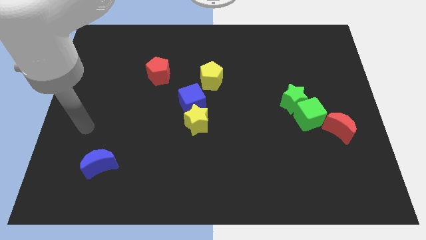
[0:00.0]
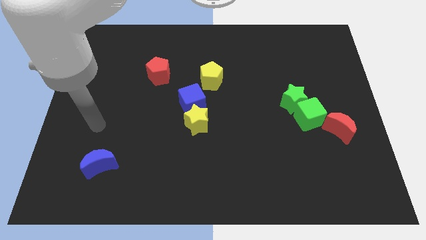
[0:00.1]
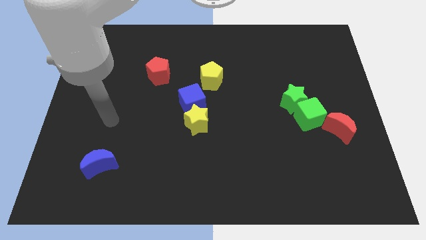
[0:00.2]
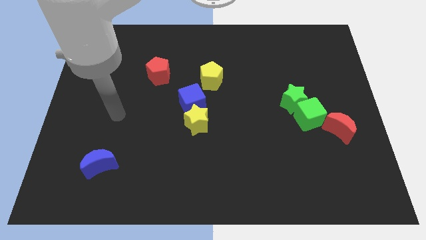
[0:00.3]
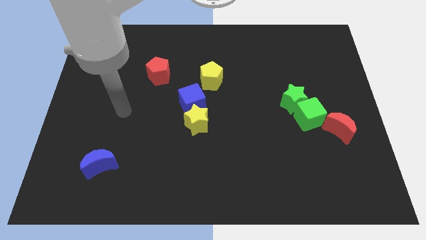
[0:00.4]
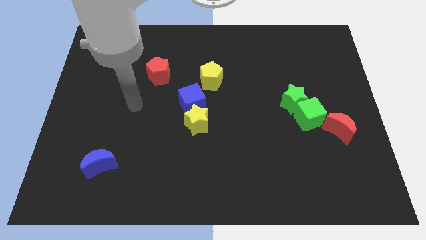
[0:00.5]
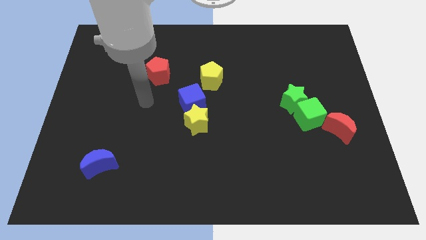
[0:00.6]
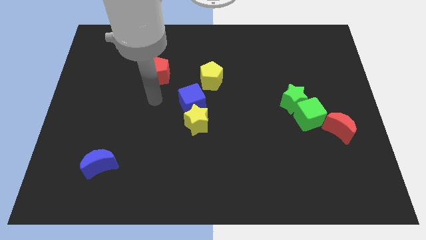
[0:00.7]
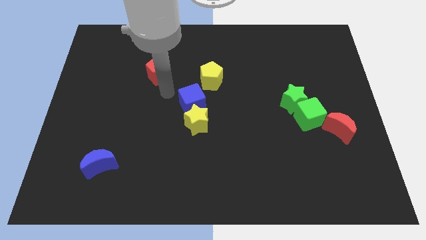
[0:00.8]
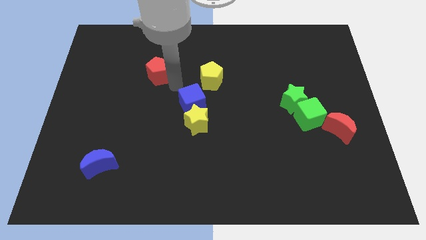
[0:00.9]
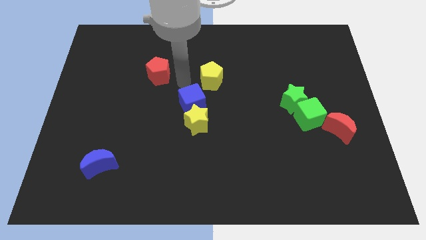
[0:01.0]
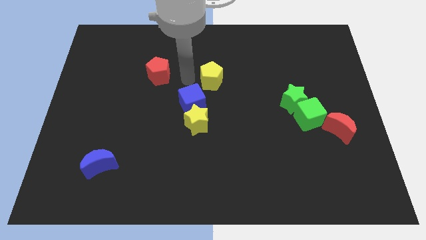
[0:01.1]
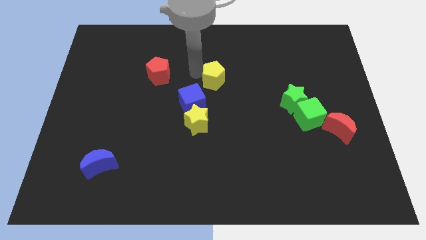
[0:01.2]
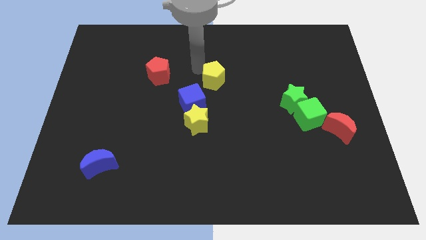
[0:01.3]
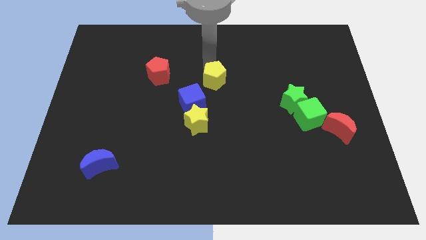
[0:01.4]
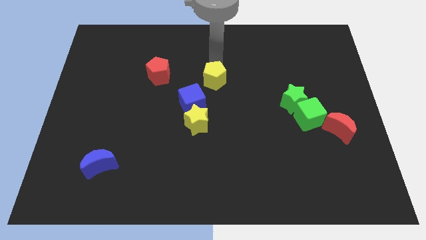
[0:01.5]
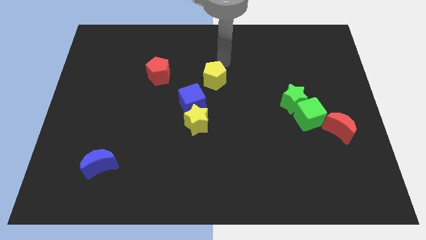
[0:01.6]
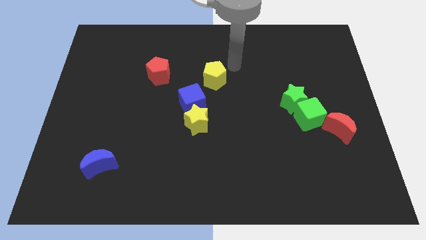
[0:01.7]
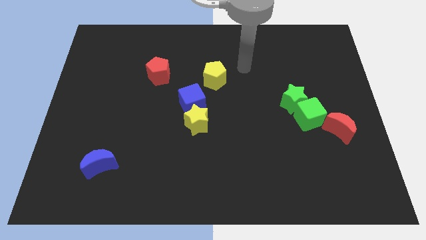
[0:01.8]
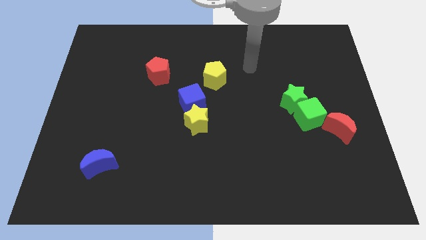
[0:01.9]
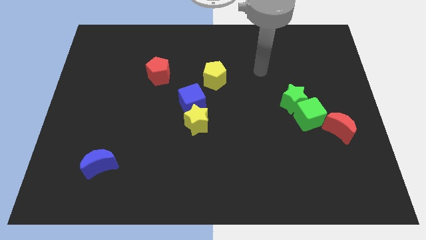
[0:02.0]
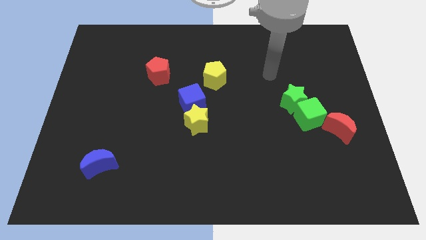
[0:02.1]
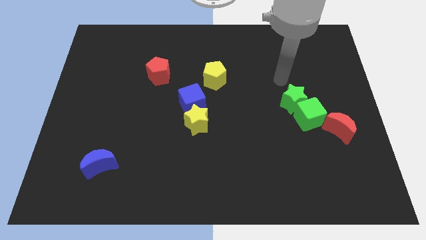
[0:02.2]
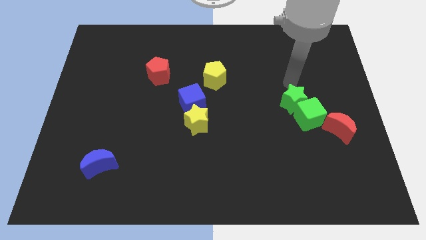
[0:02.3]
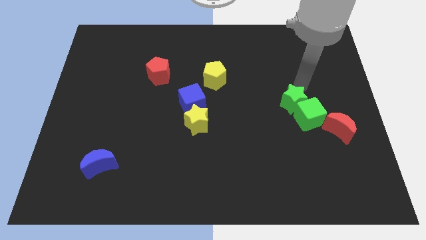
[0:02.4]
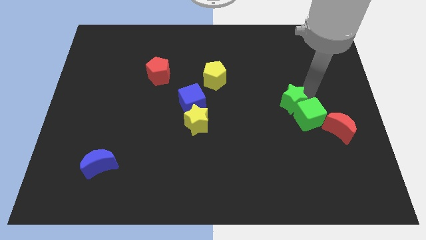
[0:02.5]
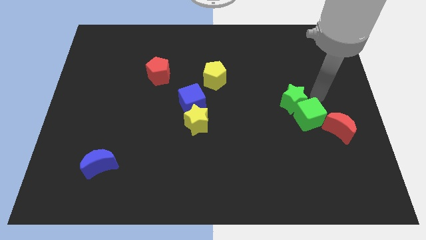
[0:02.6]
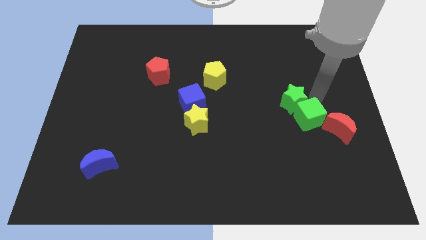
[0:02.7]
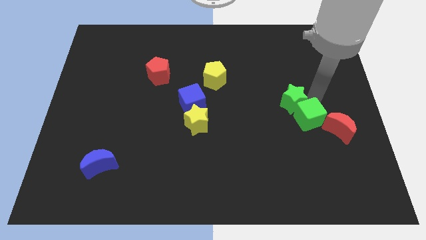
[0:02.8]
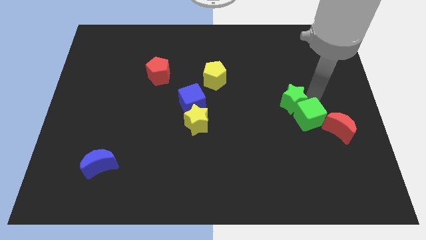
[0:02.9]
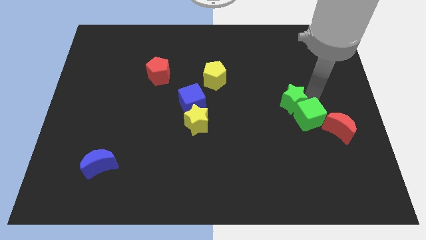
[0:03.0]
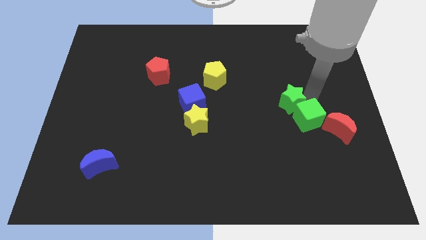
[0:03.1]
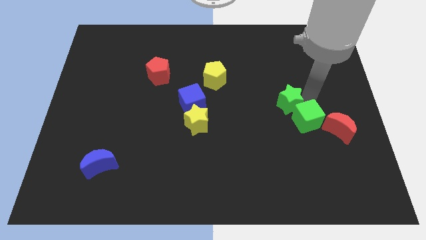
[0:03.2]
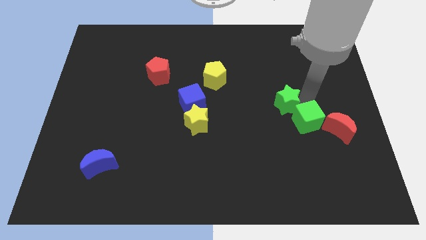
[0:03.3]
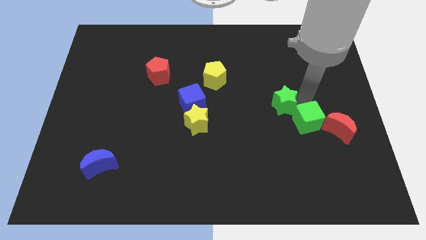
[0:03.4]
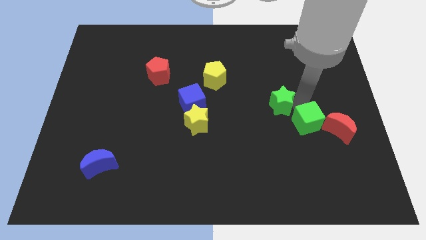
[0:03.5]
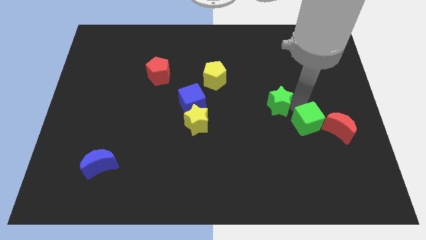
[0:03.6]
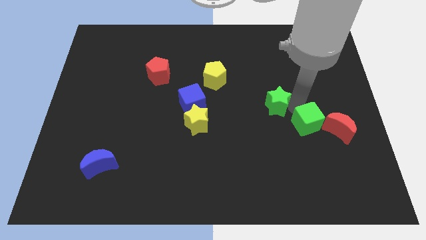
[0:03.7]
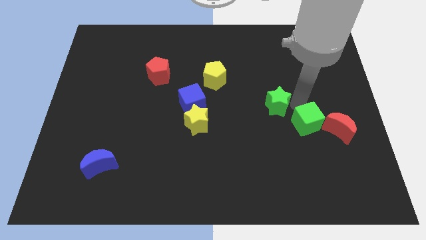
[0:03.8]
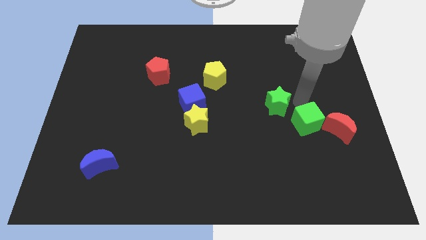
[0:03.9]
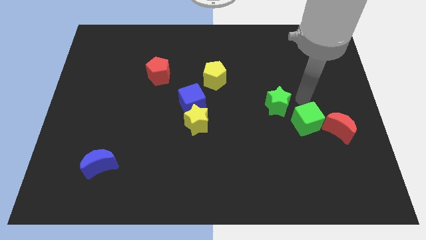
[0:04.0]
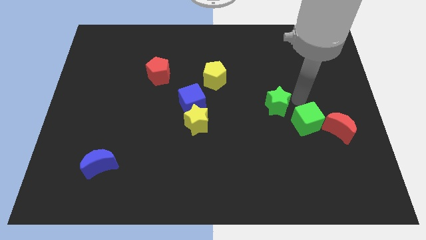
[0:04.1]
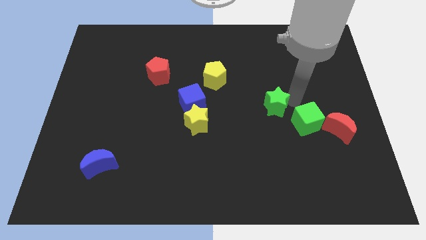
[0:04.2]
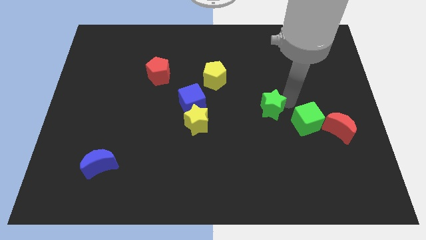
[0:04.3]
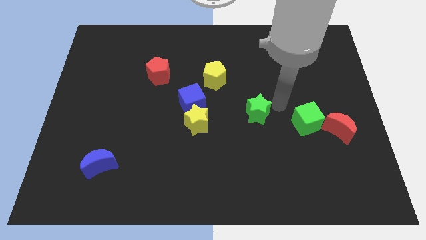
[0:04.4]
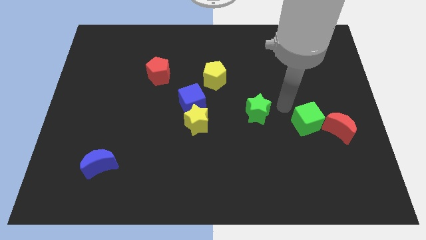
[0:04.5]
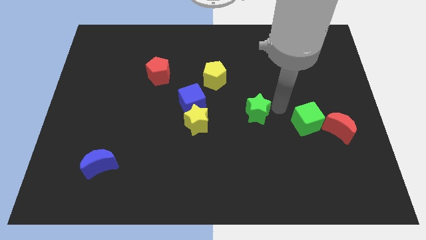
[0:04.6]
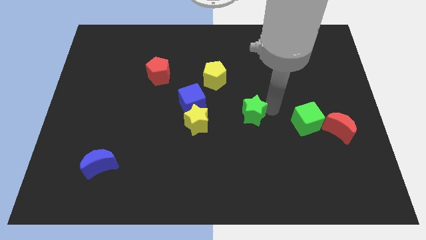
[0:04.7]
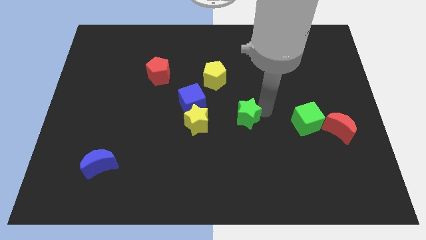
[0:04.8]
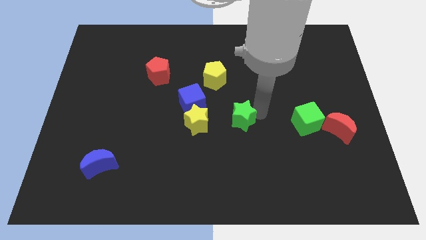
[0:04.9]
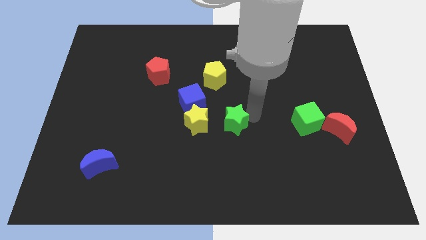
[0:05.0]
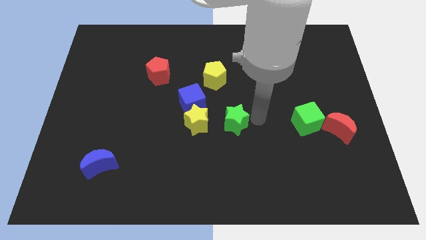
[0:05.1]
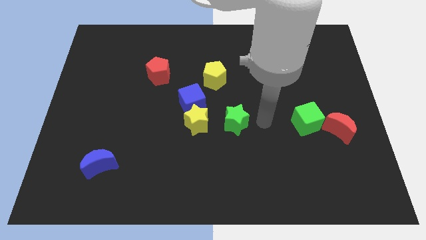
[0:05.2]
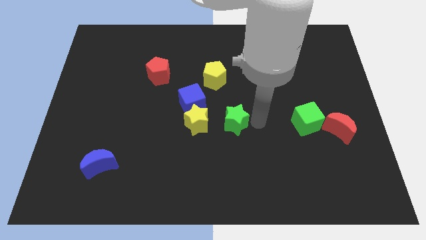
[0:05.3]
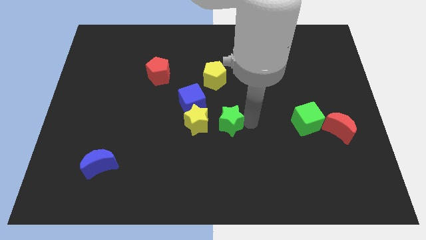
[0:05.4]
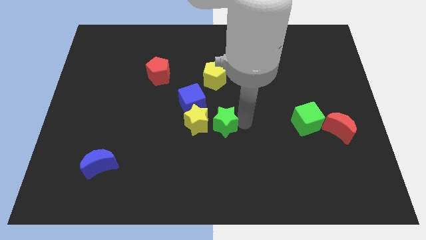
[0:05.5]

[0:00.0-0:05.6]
push the green star towards the yellow star

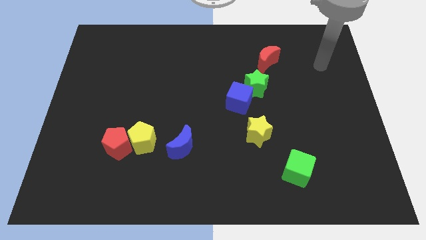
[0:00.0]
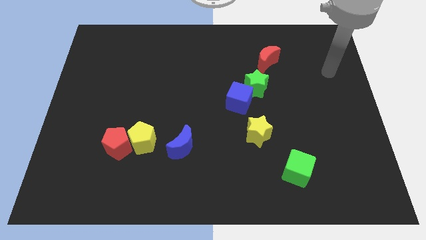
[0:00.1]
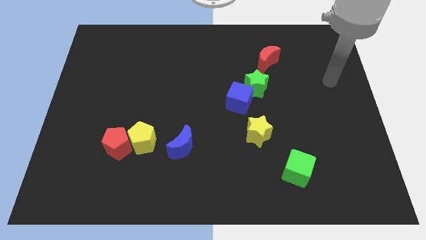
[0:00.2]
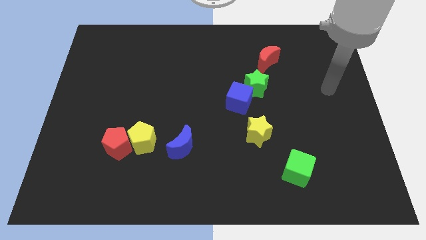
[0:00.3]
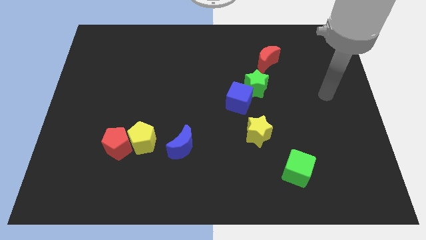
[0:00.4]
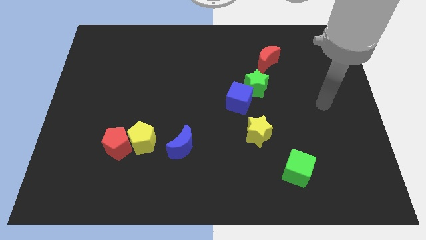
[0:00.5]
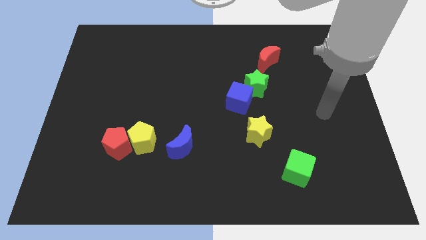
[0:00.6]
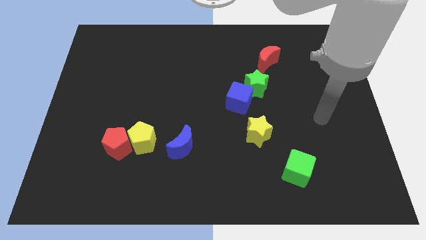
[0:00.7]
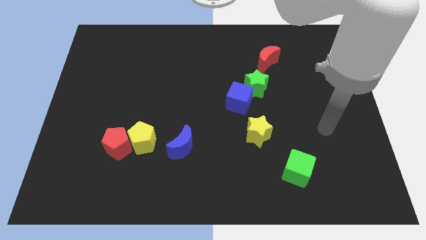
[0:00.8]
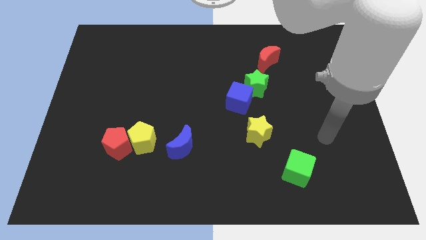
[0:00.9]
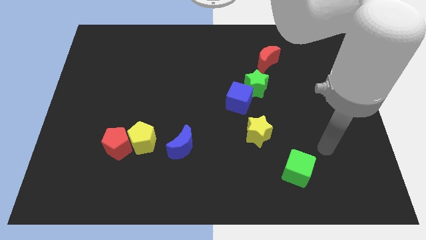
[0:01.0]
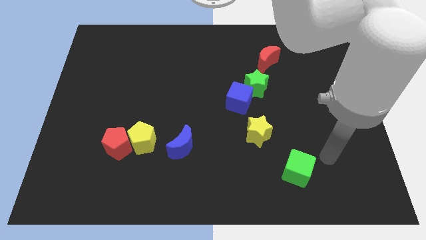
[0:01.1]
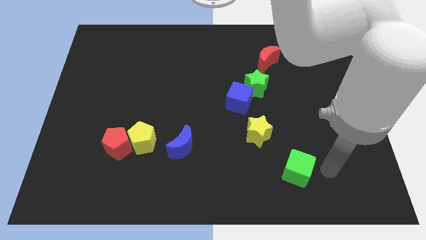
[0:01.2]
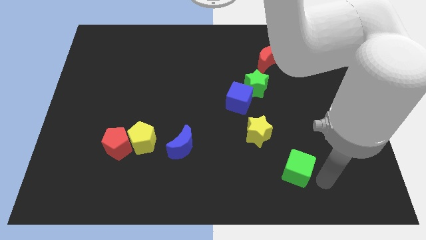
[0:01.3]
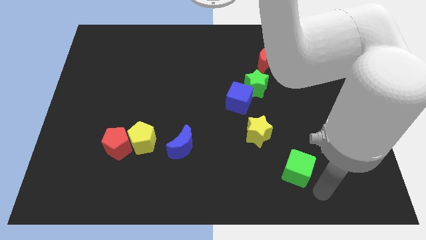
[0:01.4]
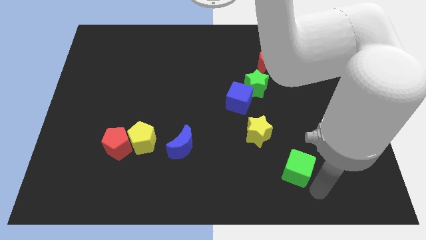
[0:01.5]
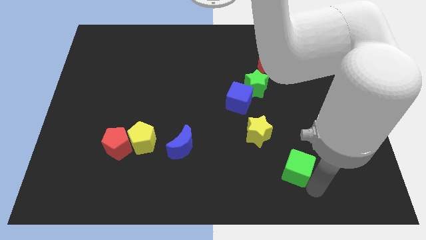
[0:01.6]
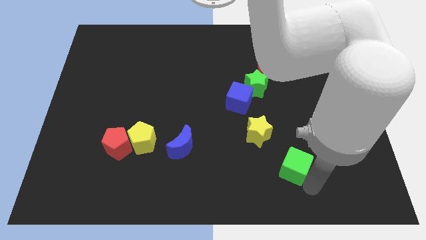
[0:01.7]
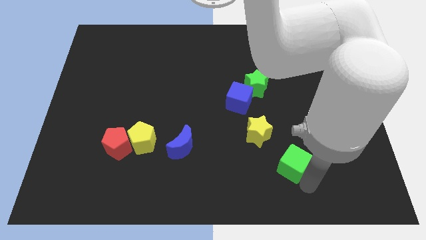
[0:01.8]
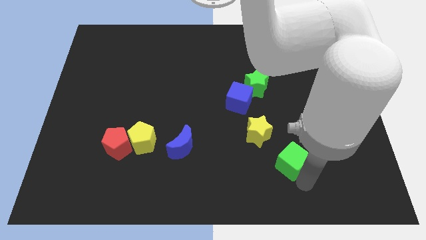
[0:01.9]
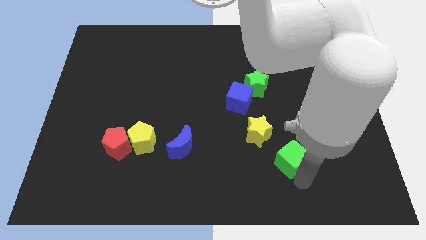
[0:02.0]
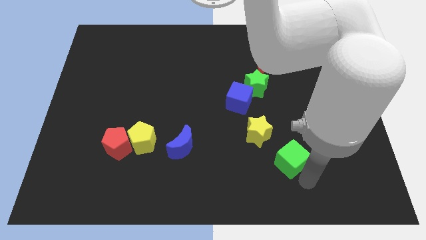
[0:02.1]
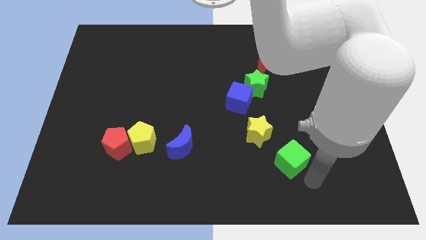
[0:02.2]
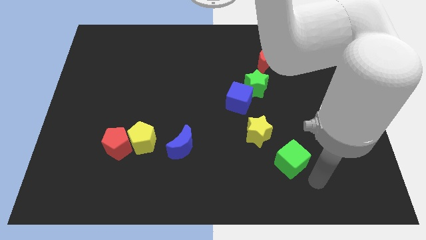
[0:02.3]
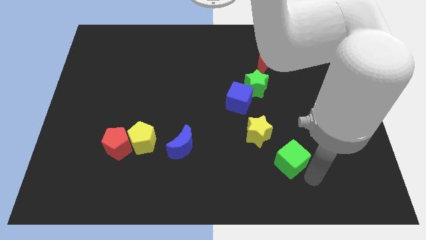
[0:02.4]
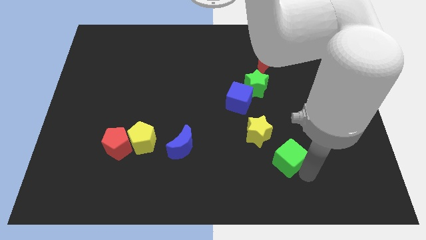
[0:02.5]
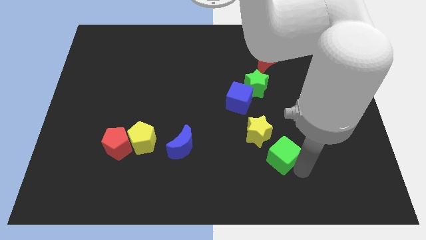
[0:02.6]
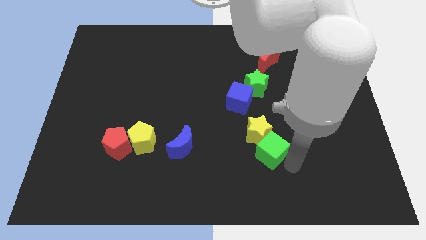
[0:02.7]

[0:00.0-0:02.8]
slide the green cube close to the yellow star
